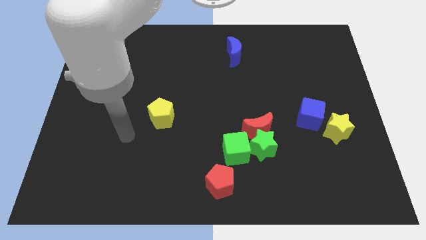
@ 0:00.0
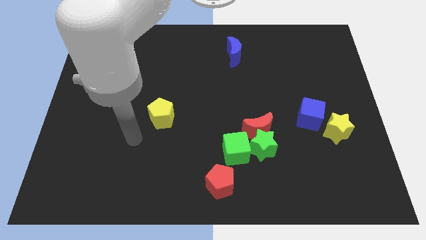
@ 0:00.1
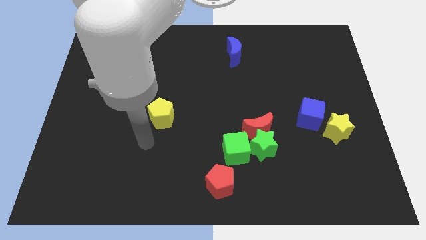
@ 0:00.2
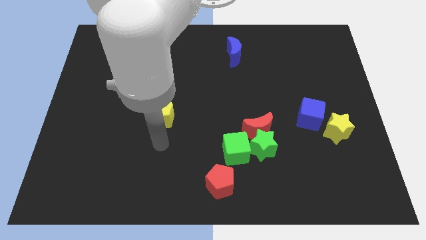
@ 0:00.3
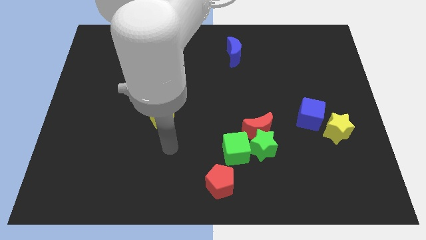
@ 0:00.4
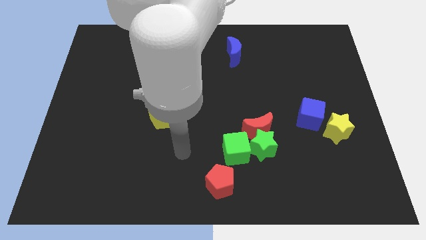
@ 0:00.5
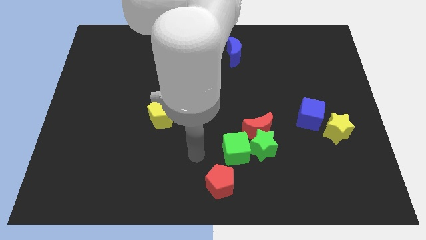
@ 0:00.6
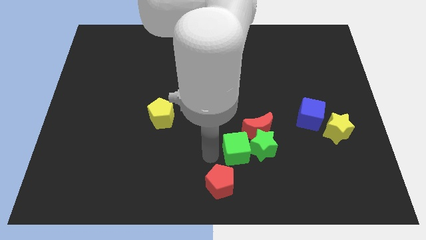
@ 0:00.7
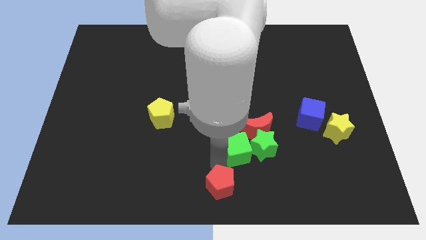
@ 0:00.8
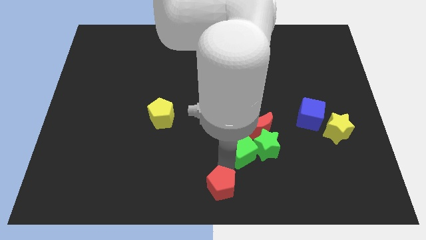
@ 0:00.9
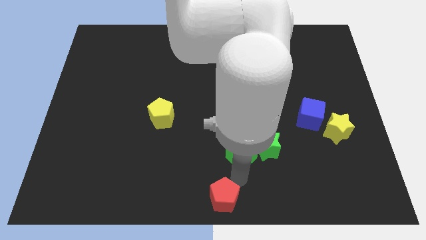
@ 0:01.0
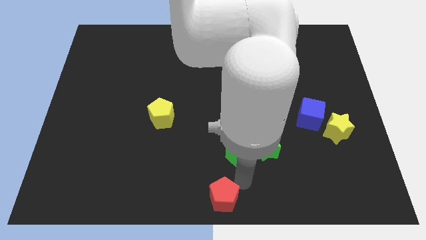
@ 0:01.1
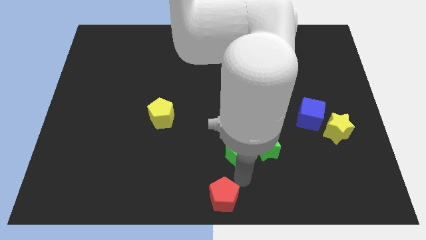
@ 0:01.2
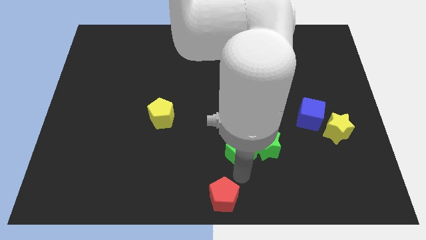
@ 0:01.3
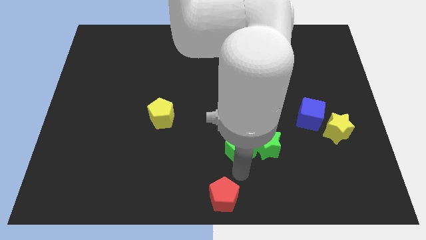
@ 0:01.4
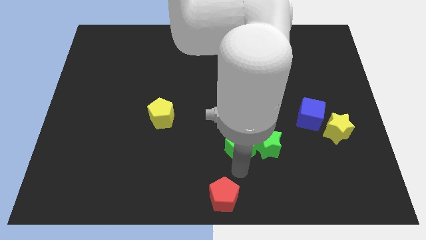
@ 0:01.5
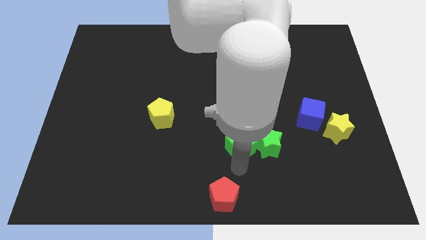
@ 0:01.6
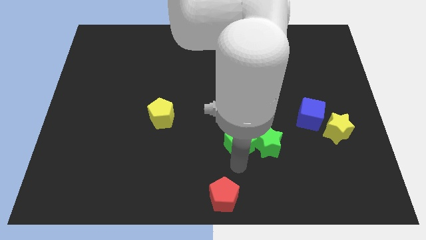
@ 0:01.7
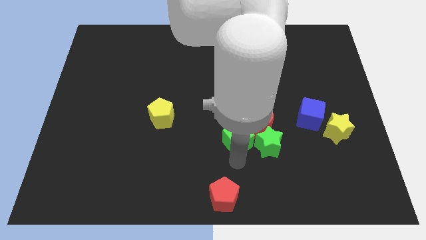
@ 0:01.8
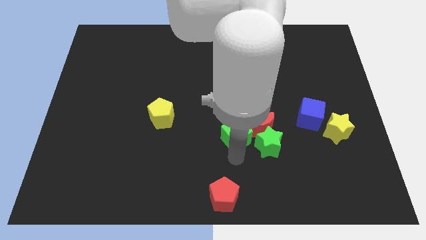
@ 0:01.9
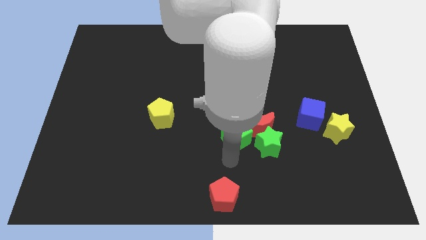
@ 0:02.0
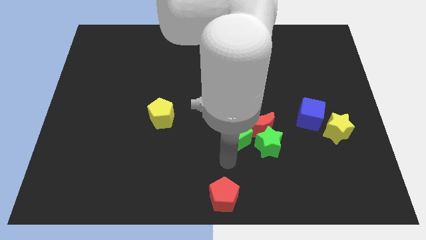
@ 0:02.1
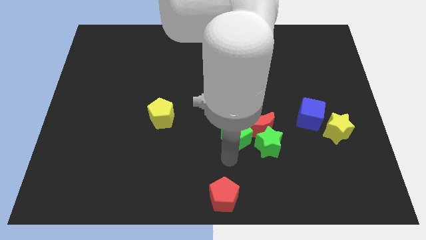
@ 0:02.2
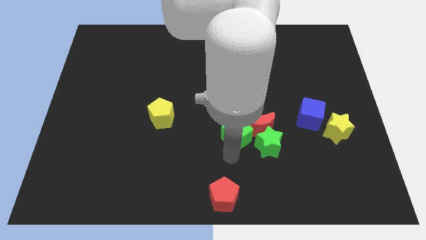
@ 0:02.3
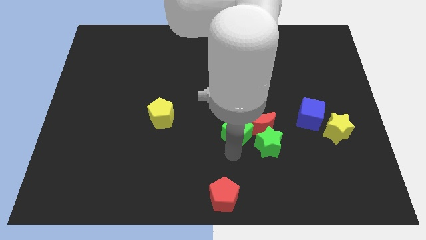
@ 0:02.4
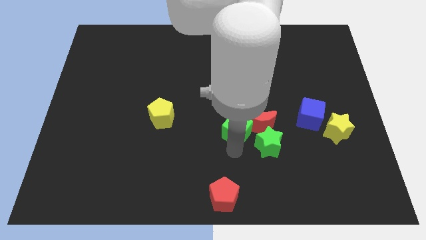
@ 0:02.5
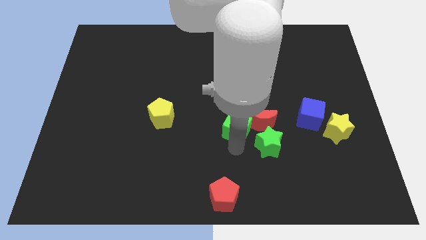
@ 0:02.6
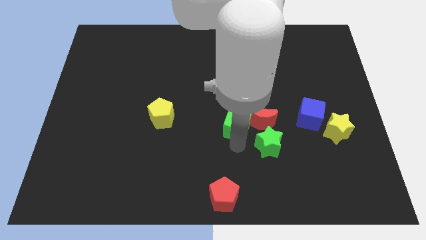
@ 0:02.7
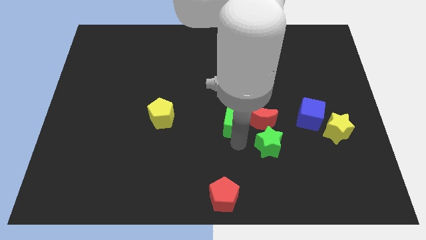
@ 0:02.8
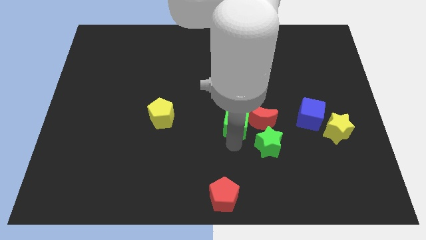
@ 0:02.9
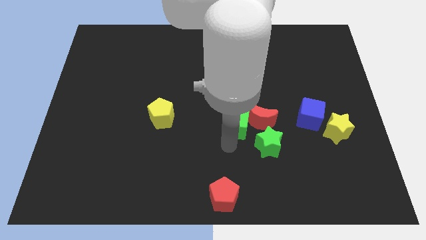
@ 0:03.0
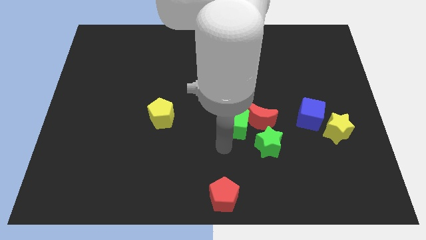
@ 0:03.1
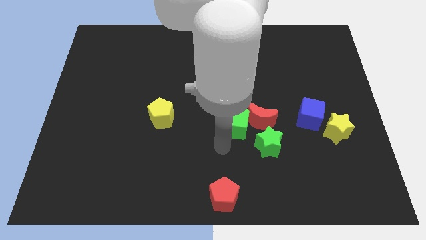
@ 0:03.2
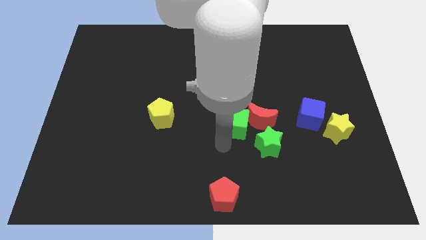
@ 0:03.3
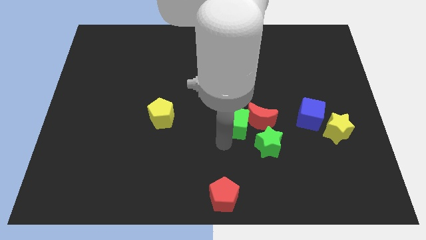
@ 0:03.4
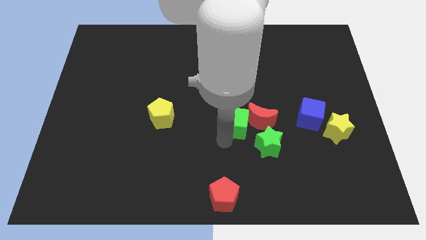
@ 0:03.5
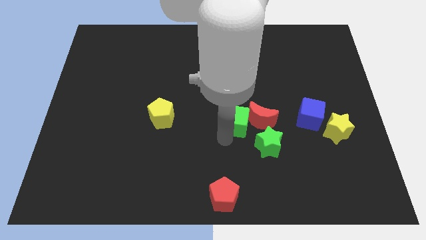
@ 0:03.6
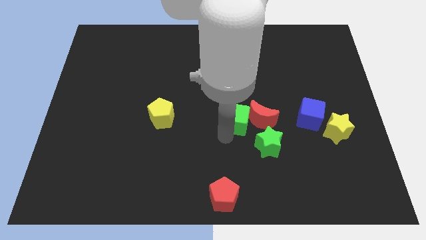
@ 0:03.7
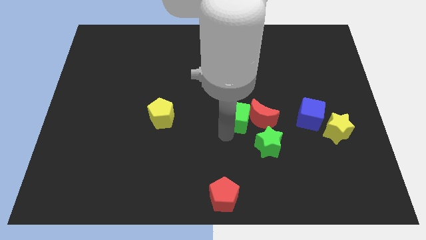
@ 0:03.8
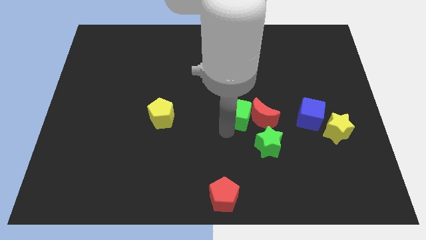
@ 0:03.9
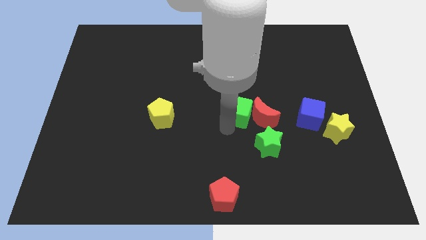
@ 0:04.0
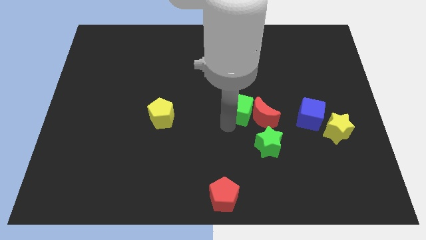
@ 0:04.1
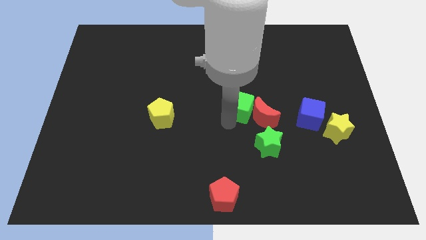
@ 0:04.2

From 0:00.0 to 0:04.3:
slightly push the green cube up and right diagonally

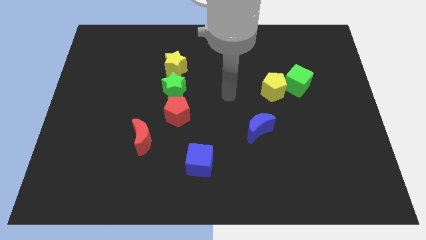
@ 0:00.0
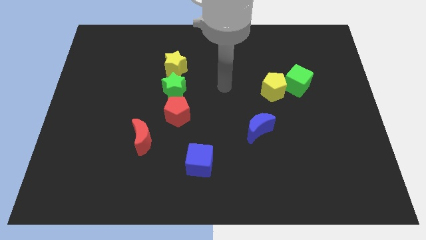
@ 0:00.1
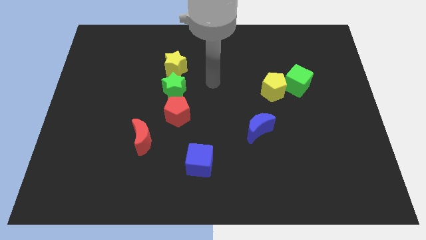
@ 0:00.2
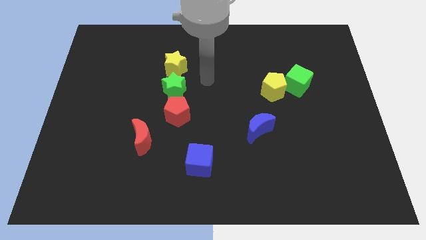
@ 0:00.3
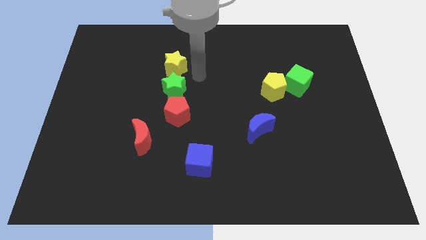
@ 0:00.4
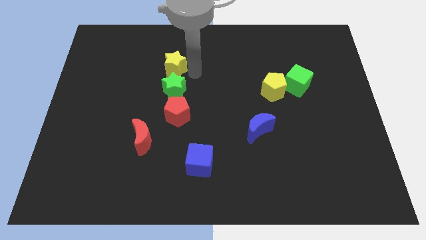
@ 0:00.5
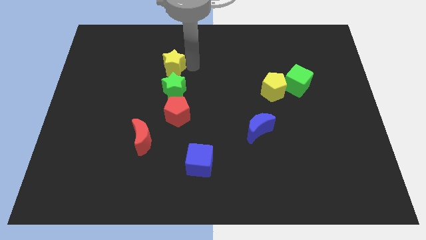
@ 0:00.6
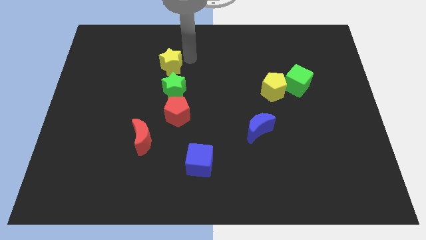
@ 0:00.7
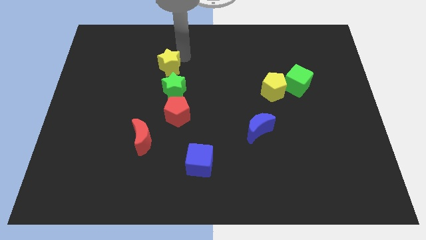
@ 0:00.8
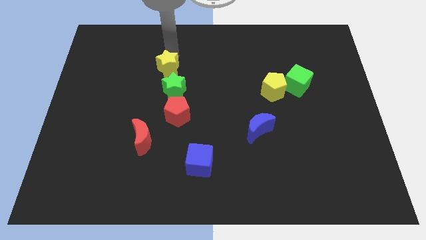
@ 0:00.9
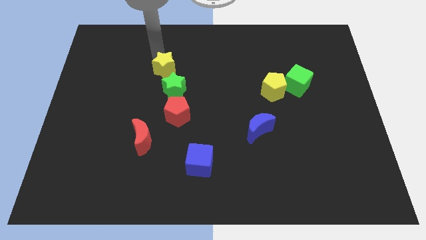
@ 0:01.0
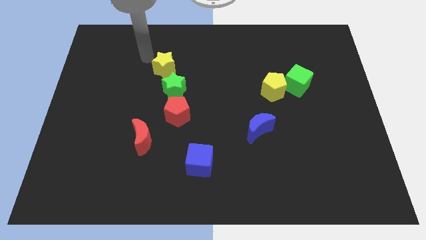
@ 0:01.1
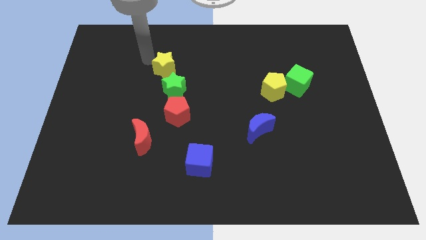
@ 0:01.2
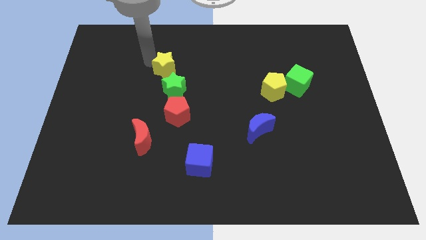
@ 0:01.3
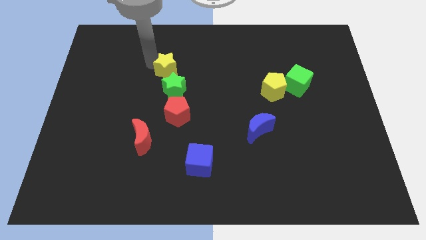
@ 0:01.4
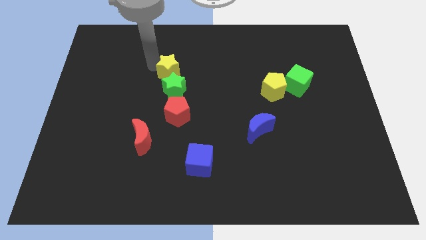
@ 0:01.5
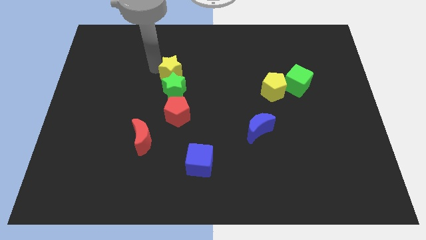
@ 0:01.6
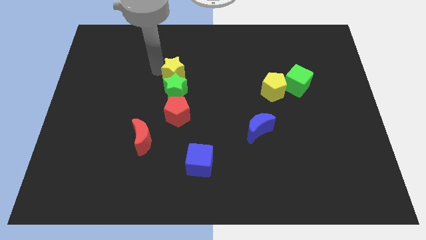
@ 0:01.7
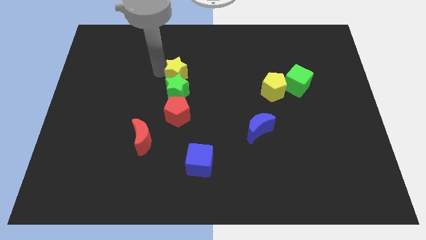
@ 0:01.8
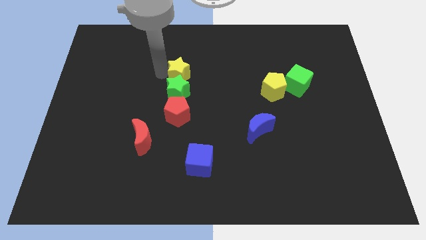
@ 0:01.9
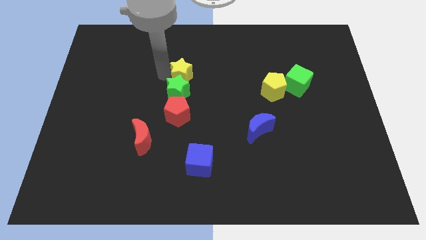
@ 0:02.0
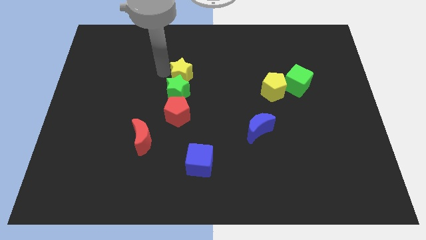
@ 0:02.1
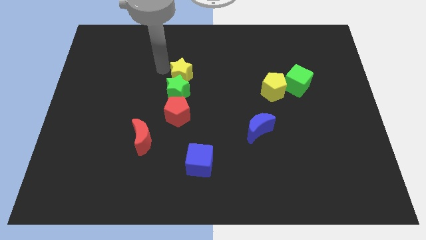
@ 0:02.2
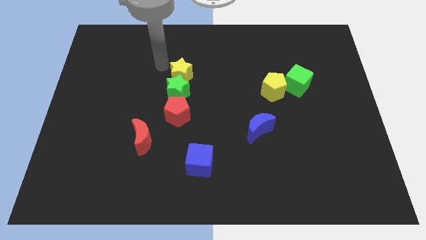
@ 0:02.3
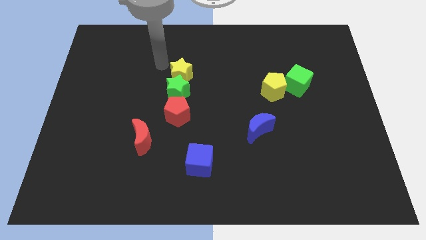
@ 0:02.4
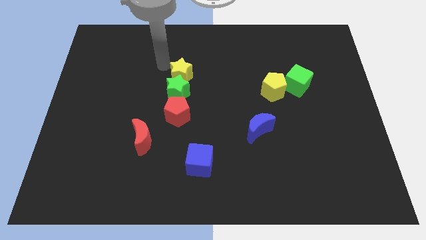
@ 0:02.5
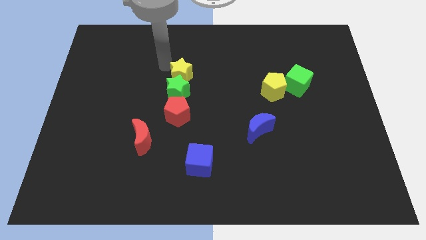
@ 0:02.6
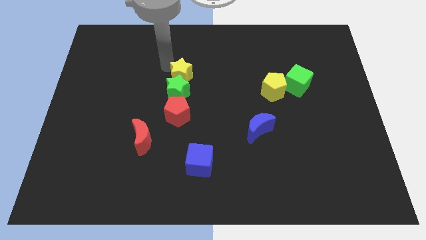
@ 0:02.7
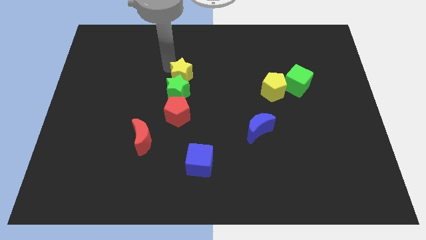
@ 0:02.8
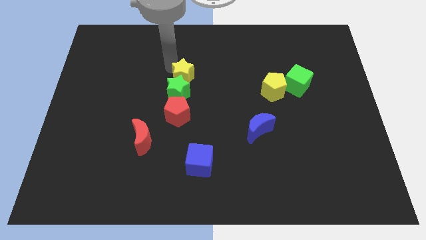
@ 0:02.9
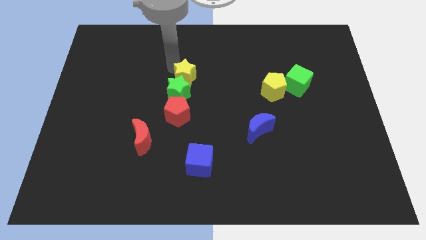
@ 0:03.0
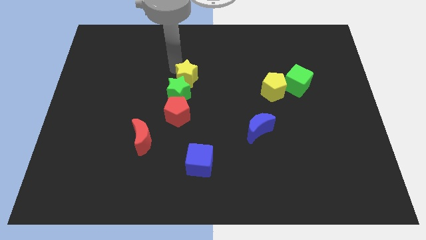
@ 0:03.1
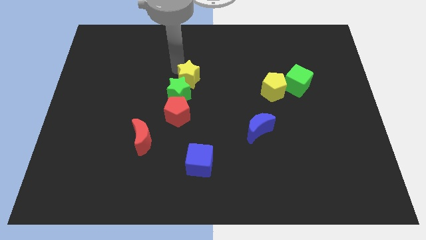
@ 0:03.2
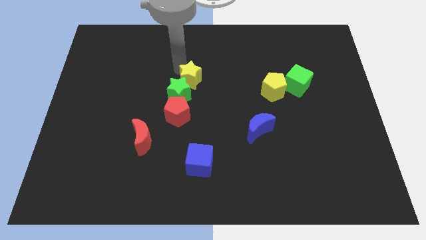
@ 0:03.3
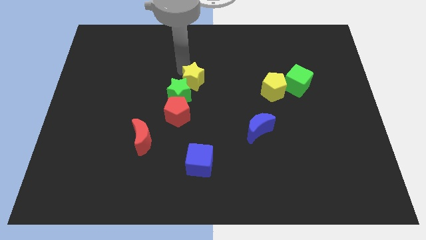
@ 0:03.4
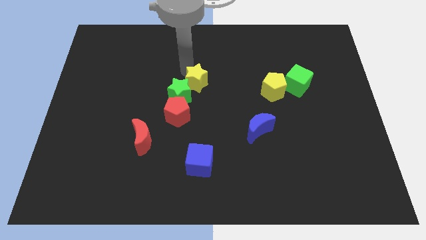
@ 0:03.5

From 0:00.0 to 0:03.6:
slightly slide the yellow star diagonally downwards and right

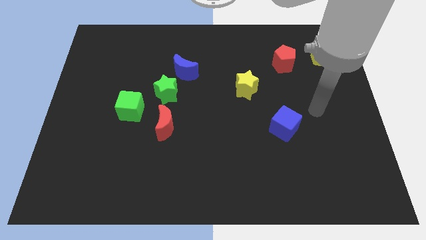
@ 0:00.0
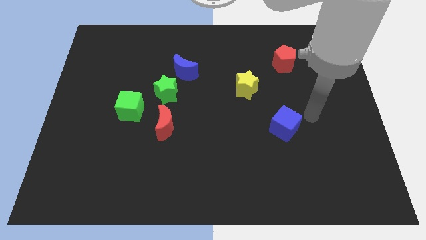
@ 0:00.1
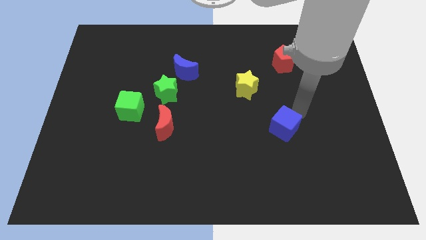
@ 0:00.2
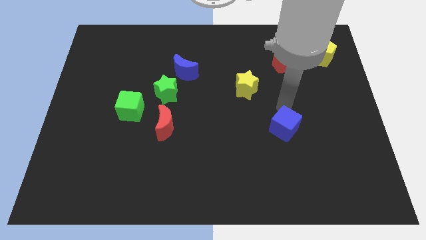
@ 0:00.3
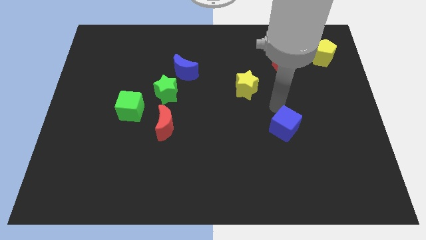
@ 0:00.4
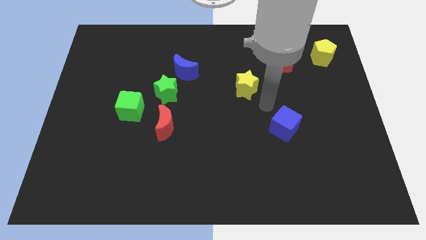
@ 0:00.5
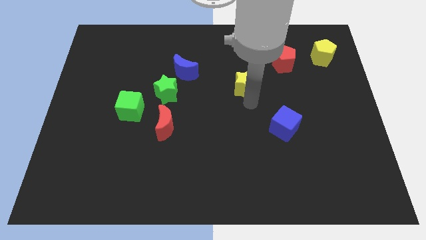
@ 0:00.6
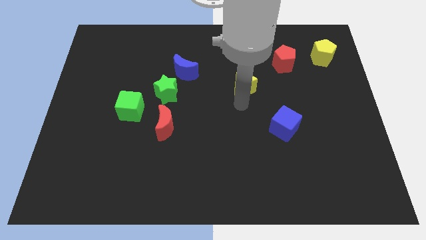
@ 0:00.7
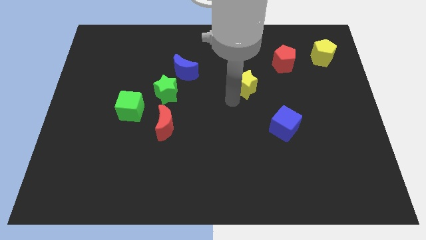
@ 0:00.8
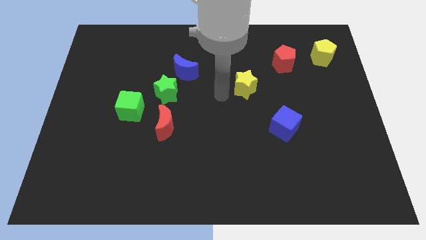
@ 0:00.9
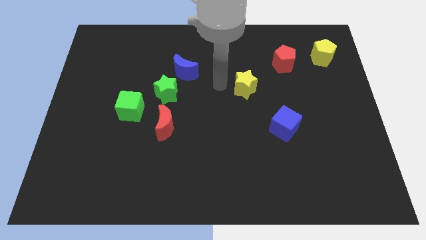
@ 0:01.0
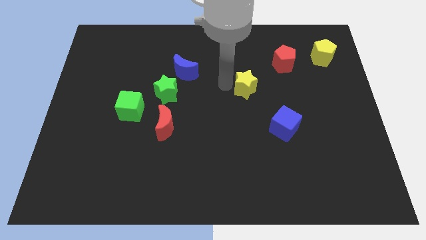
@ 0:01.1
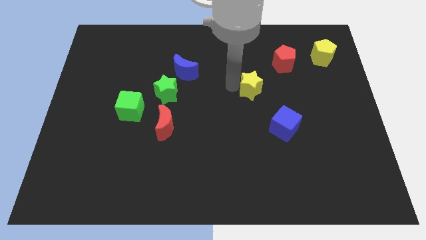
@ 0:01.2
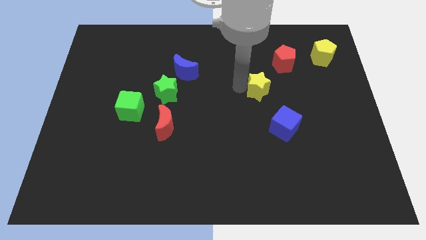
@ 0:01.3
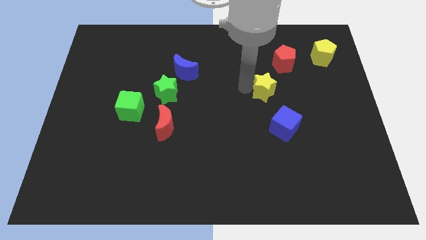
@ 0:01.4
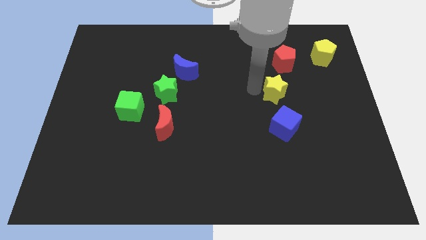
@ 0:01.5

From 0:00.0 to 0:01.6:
move the yellow star to the right slightly
